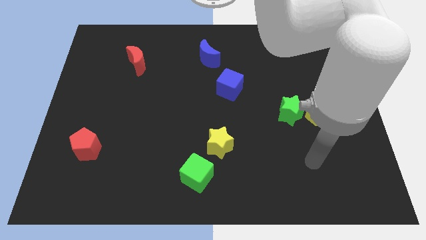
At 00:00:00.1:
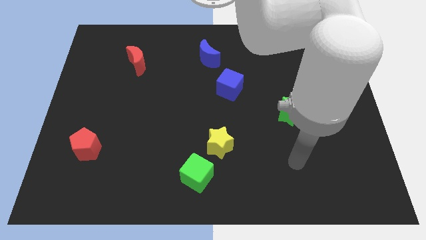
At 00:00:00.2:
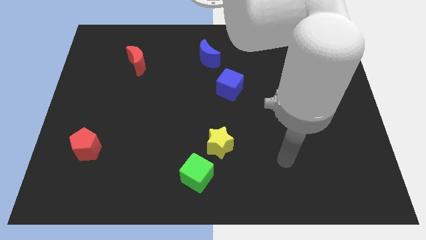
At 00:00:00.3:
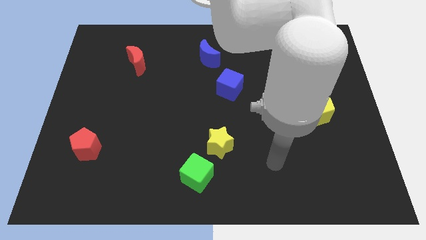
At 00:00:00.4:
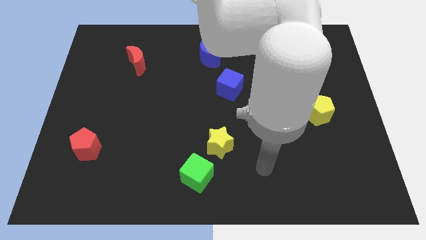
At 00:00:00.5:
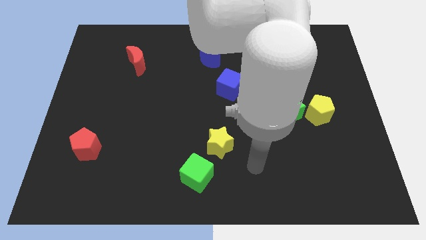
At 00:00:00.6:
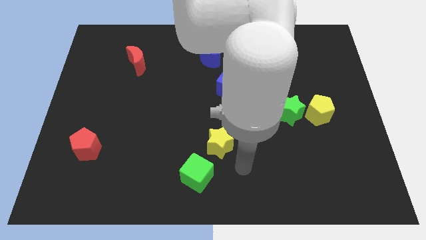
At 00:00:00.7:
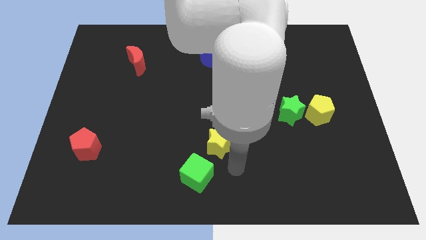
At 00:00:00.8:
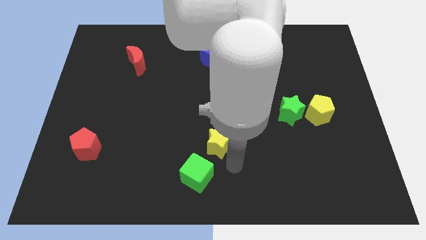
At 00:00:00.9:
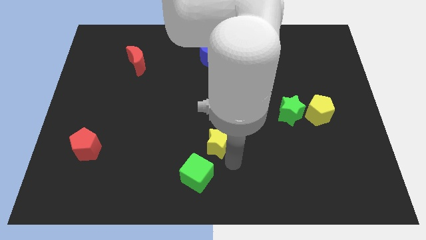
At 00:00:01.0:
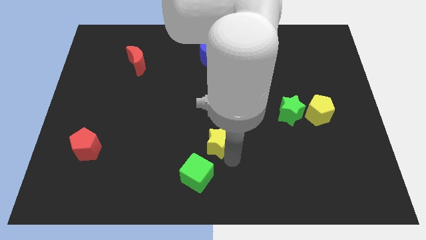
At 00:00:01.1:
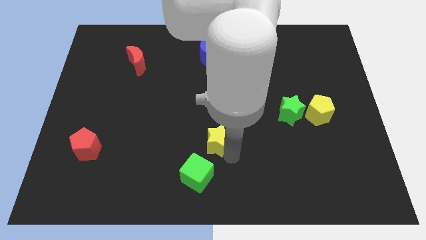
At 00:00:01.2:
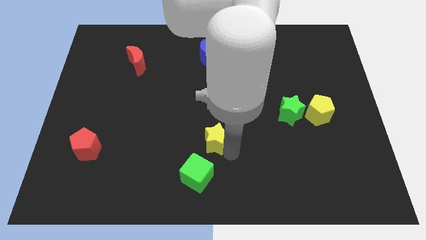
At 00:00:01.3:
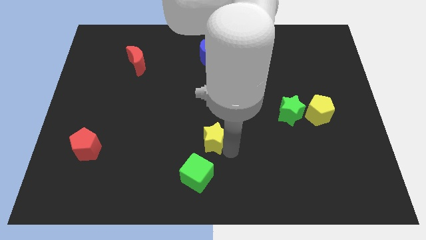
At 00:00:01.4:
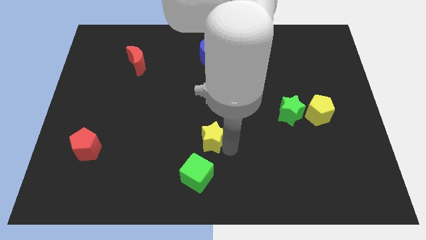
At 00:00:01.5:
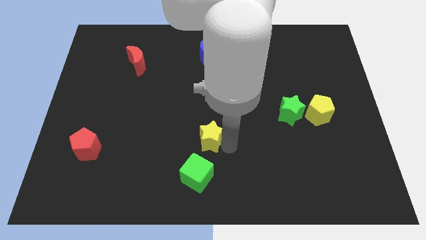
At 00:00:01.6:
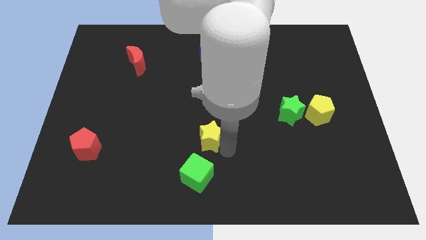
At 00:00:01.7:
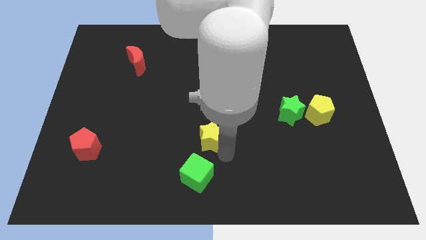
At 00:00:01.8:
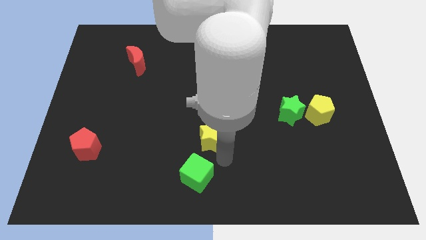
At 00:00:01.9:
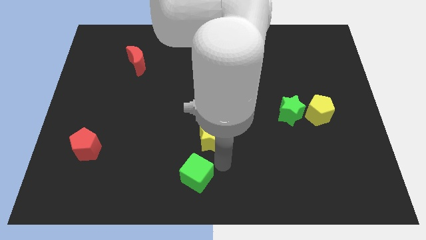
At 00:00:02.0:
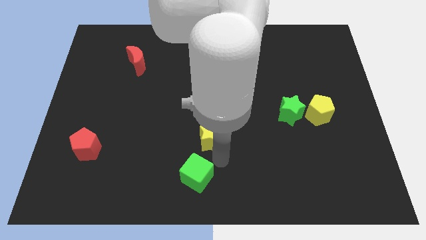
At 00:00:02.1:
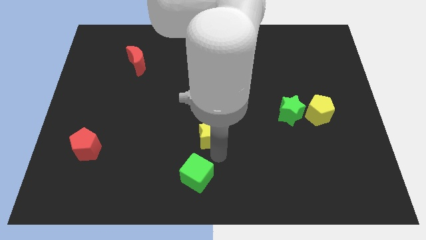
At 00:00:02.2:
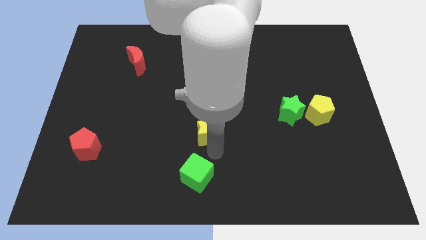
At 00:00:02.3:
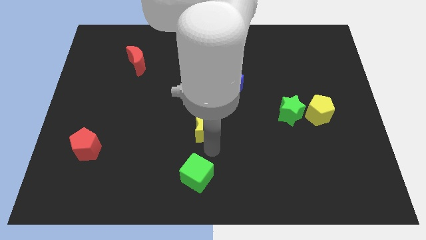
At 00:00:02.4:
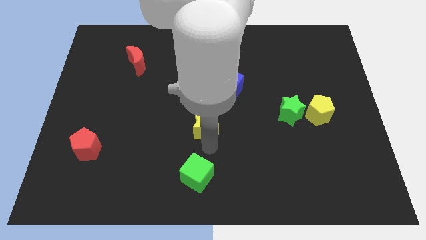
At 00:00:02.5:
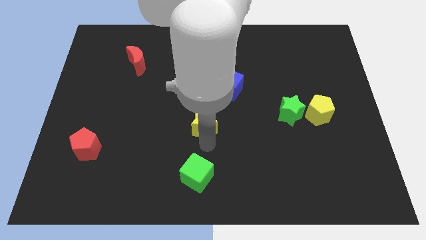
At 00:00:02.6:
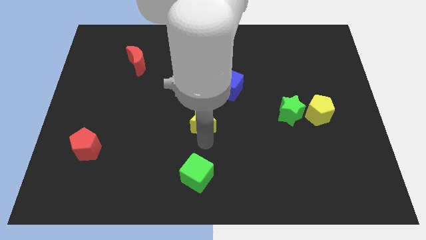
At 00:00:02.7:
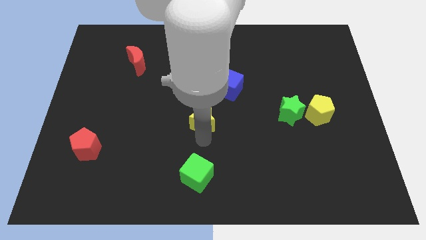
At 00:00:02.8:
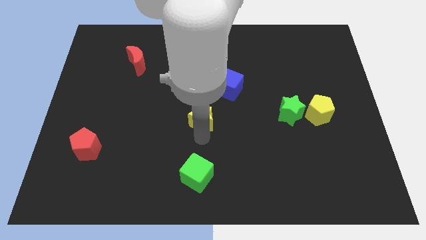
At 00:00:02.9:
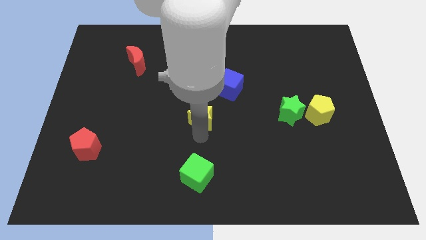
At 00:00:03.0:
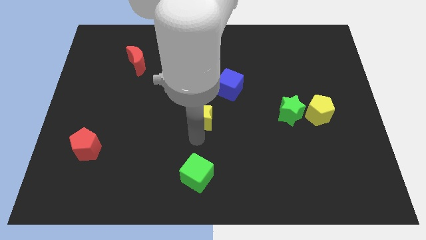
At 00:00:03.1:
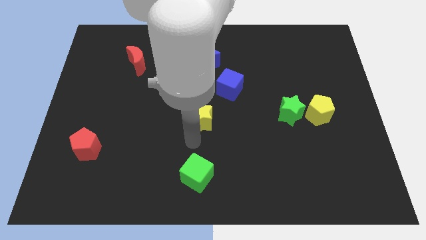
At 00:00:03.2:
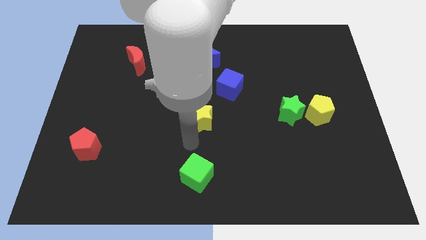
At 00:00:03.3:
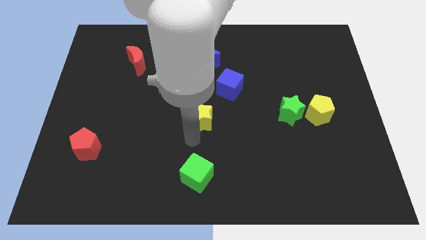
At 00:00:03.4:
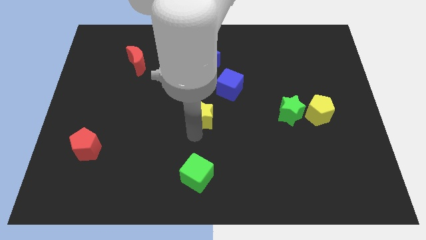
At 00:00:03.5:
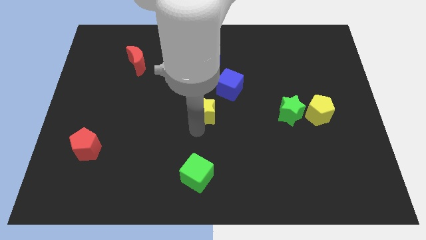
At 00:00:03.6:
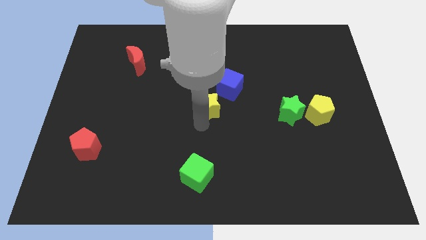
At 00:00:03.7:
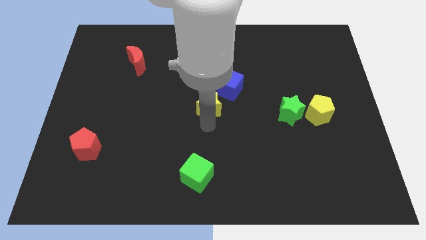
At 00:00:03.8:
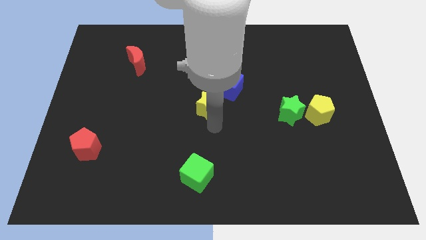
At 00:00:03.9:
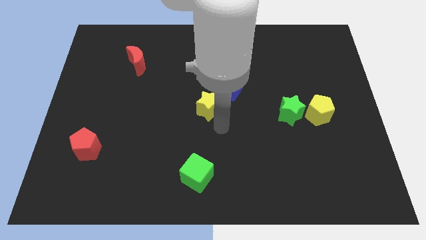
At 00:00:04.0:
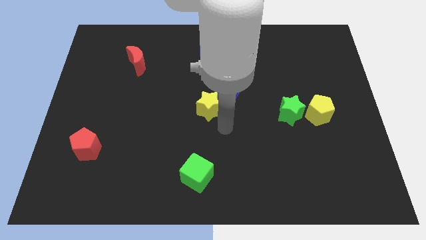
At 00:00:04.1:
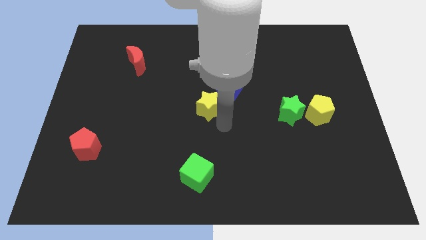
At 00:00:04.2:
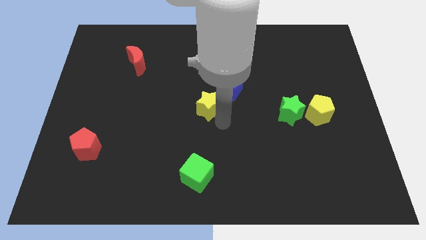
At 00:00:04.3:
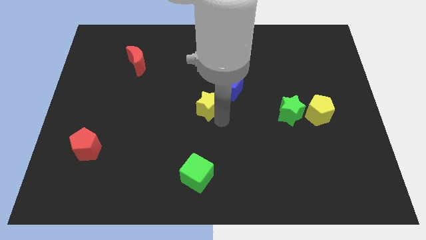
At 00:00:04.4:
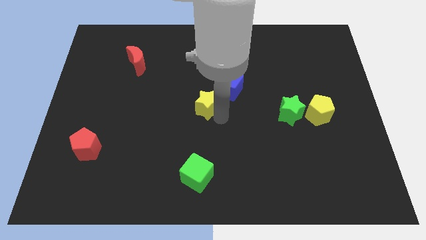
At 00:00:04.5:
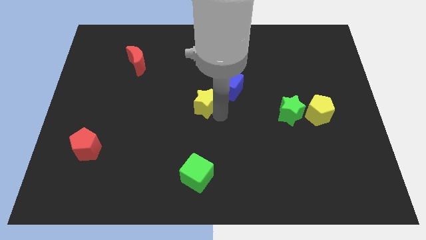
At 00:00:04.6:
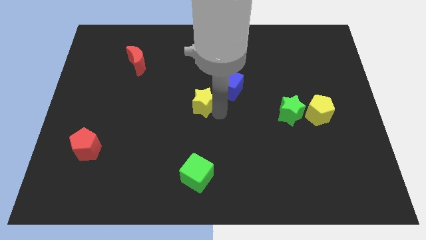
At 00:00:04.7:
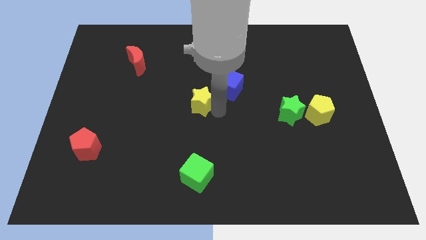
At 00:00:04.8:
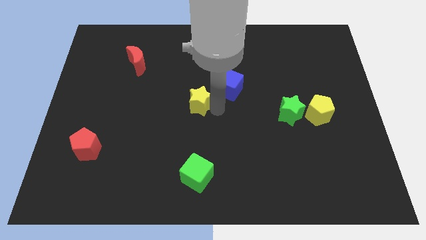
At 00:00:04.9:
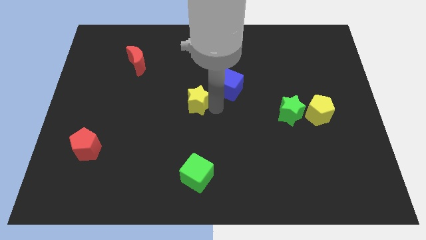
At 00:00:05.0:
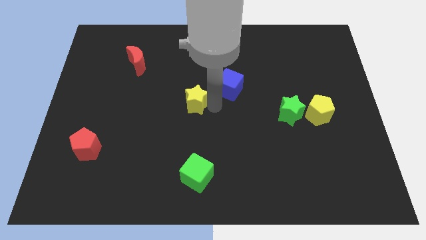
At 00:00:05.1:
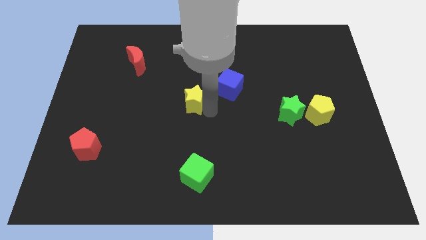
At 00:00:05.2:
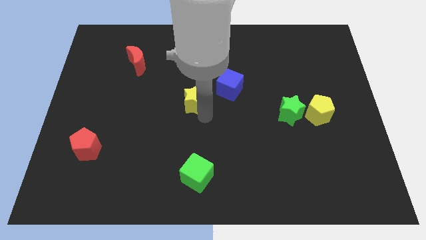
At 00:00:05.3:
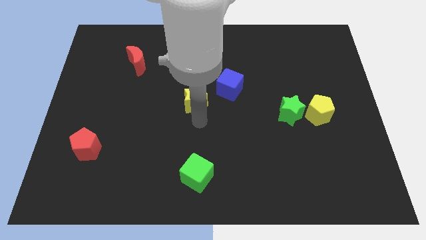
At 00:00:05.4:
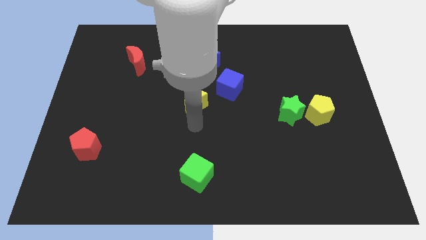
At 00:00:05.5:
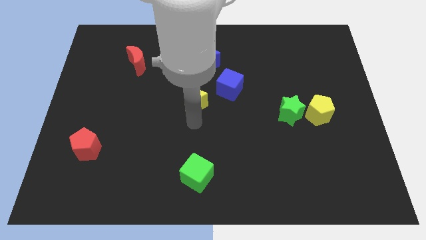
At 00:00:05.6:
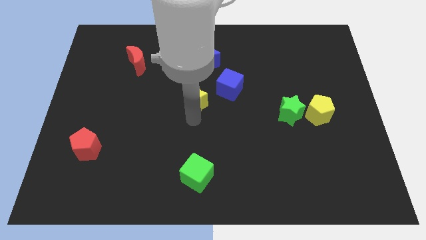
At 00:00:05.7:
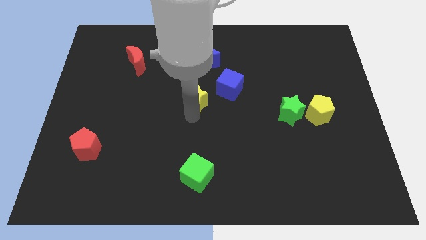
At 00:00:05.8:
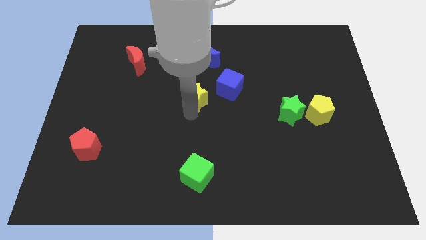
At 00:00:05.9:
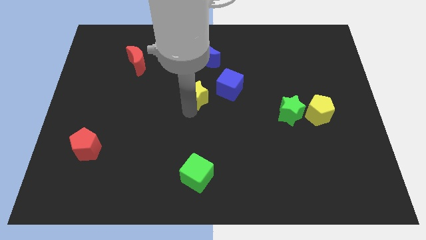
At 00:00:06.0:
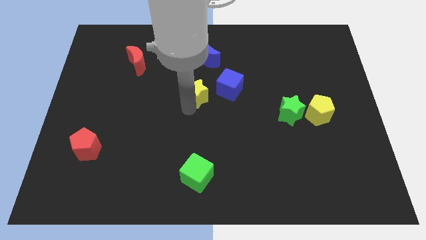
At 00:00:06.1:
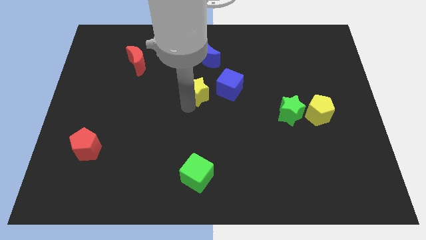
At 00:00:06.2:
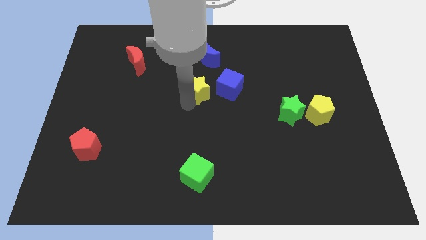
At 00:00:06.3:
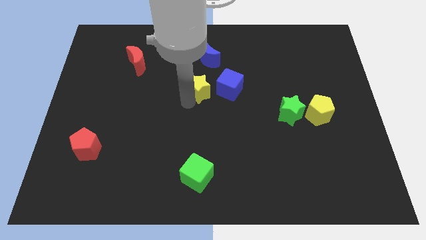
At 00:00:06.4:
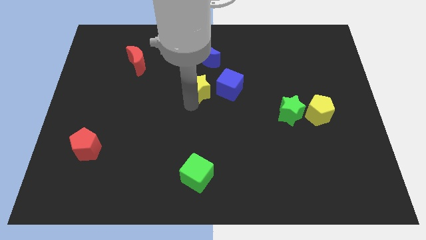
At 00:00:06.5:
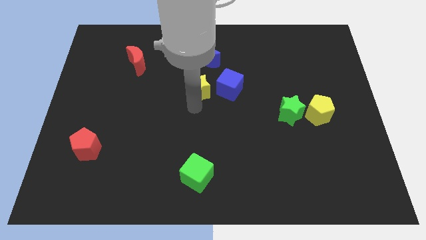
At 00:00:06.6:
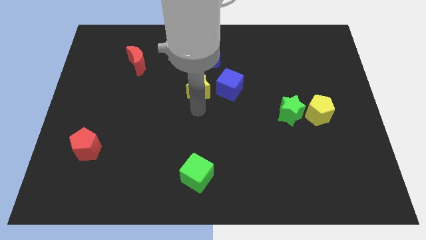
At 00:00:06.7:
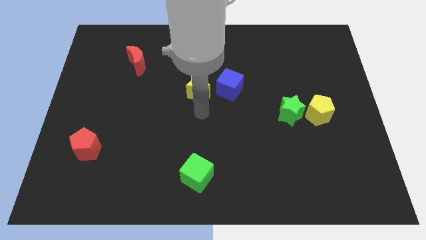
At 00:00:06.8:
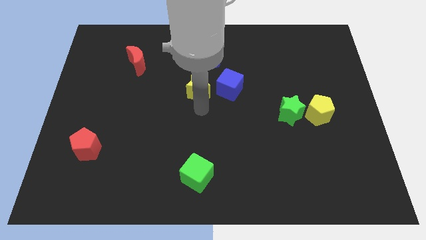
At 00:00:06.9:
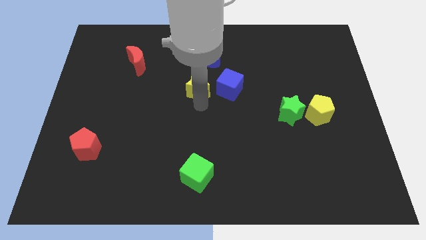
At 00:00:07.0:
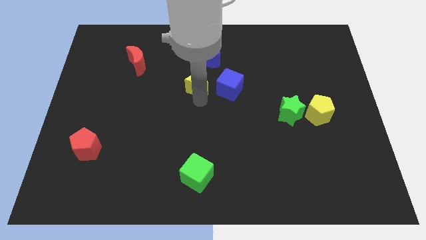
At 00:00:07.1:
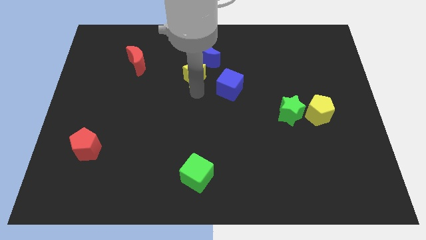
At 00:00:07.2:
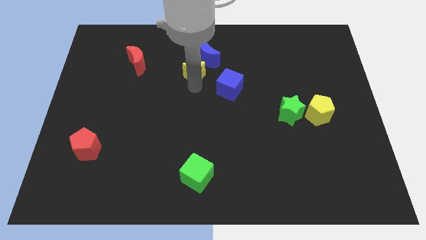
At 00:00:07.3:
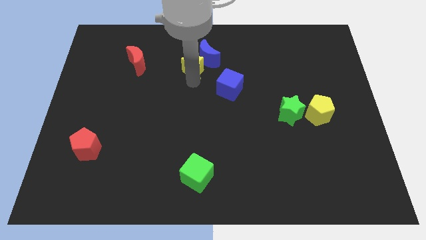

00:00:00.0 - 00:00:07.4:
put the yellow star to the blue moon
